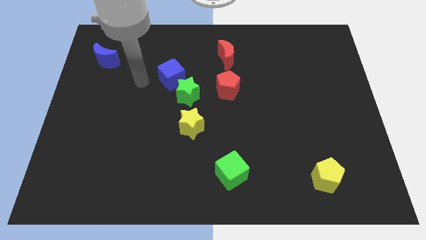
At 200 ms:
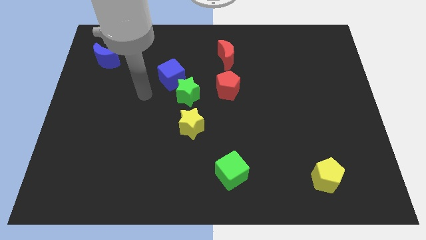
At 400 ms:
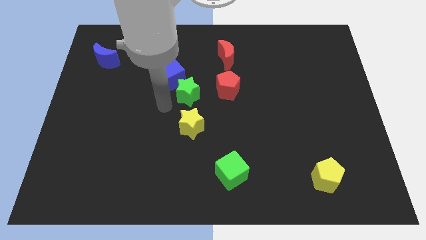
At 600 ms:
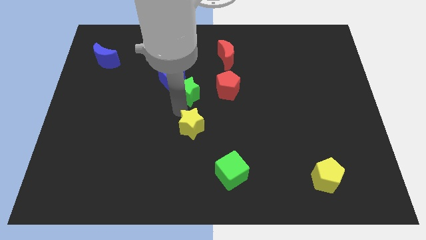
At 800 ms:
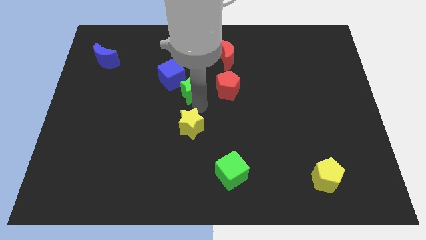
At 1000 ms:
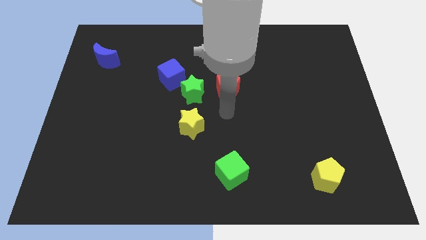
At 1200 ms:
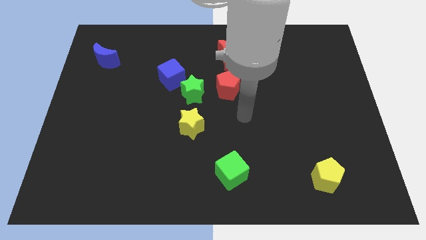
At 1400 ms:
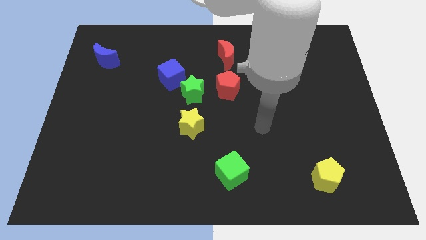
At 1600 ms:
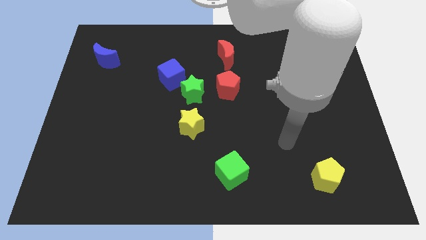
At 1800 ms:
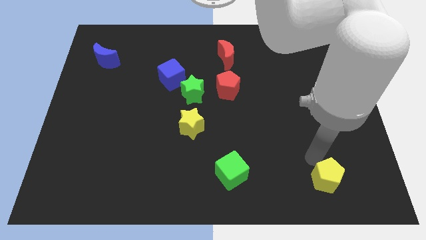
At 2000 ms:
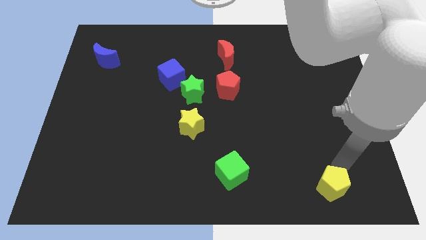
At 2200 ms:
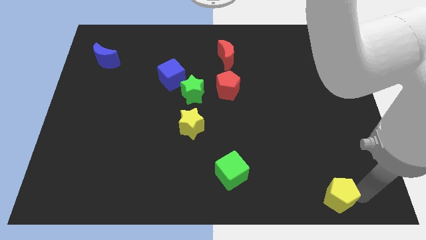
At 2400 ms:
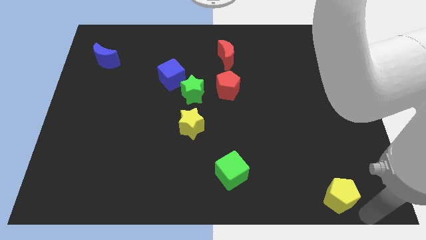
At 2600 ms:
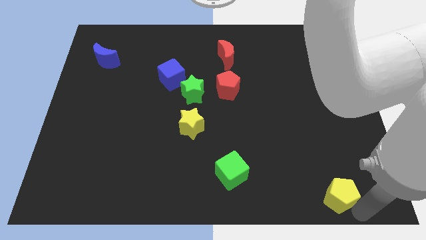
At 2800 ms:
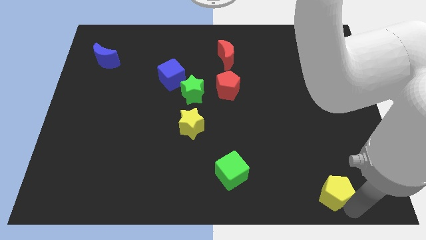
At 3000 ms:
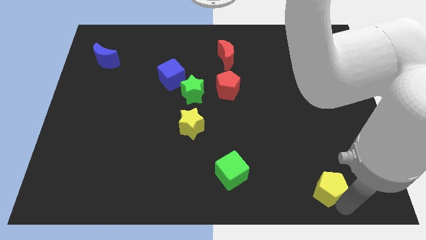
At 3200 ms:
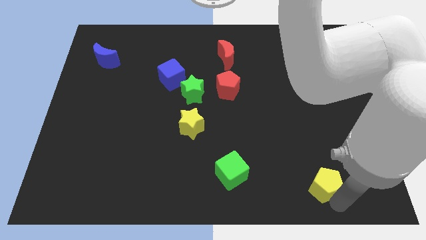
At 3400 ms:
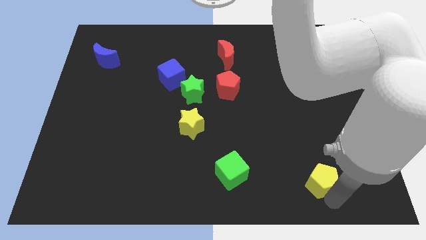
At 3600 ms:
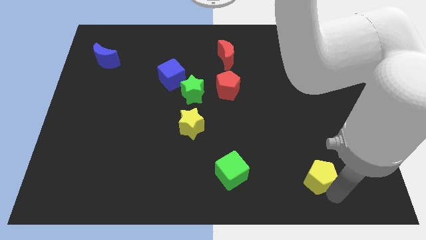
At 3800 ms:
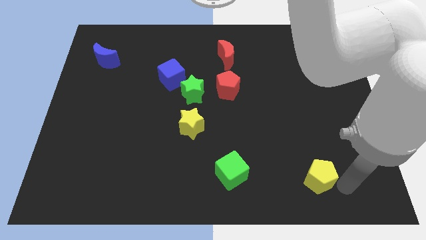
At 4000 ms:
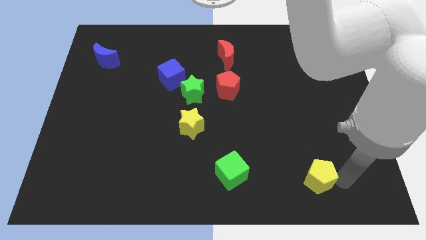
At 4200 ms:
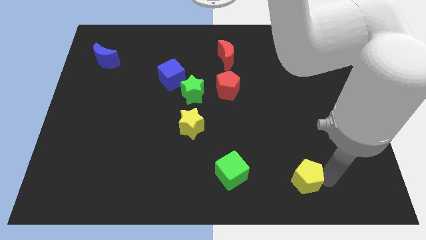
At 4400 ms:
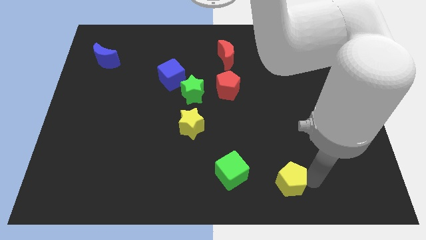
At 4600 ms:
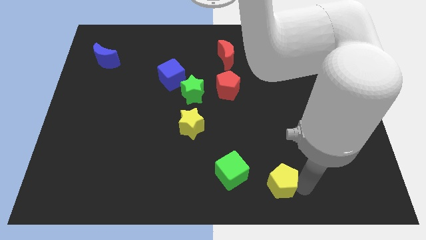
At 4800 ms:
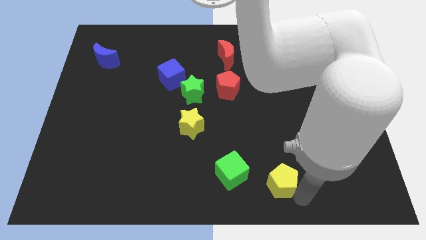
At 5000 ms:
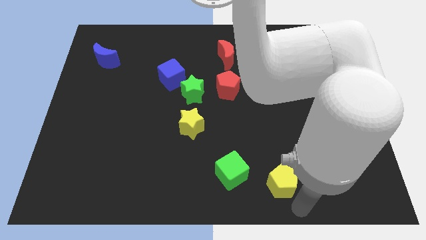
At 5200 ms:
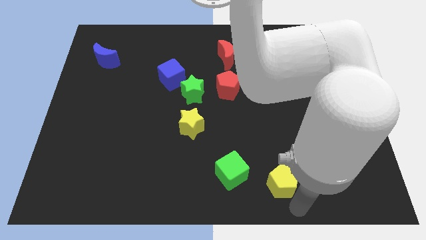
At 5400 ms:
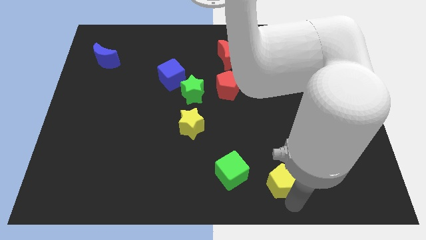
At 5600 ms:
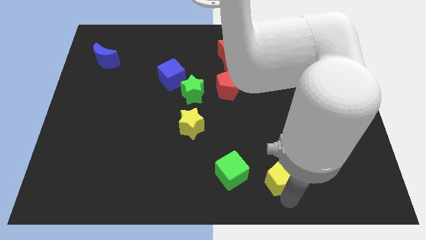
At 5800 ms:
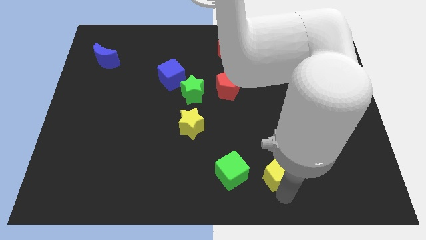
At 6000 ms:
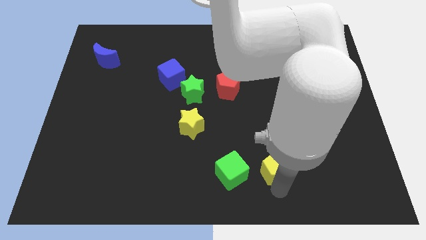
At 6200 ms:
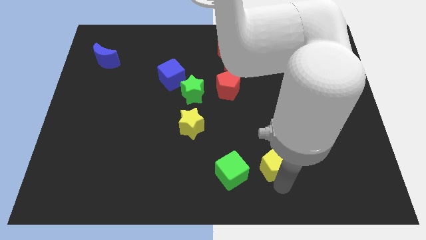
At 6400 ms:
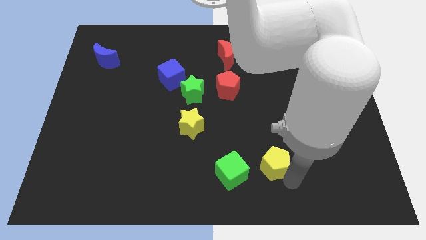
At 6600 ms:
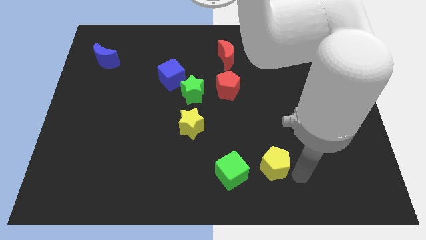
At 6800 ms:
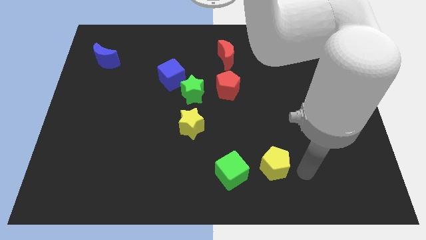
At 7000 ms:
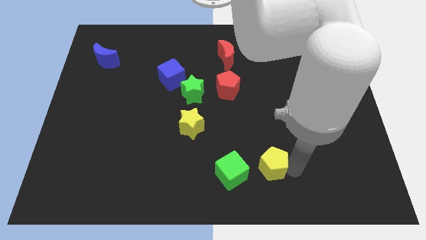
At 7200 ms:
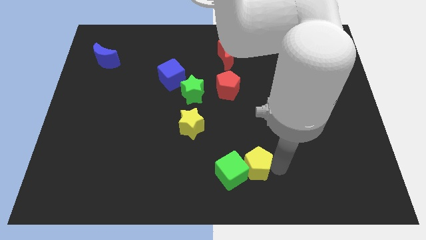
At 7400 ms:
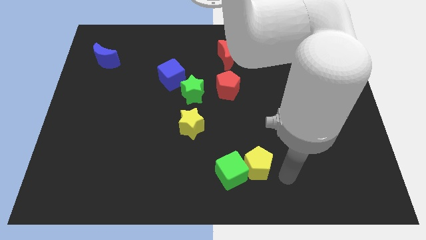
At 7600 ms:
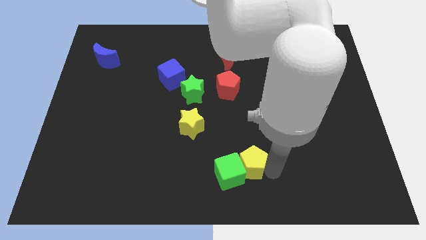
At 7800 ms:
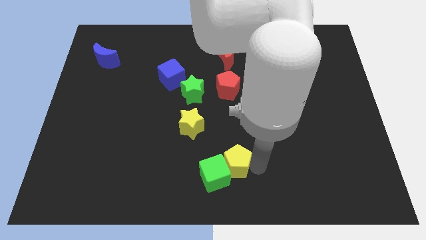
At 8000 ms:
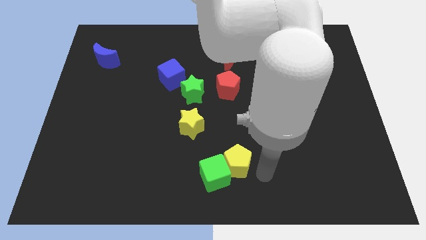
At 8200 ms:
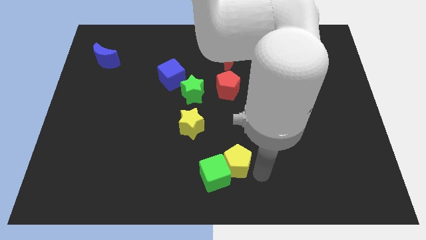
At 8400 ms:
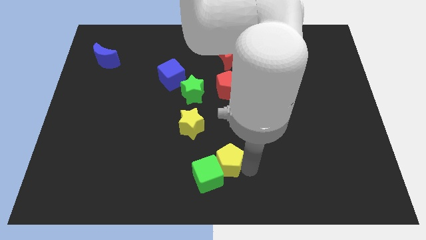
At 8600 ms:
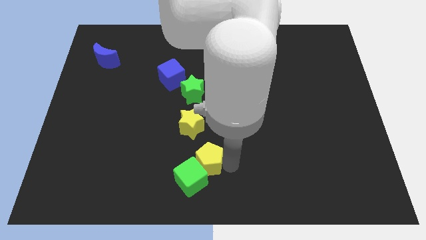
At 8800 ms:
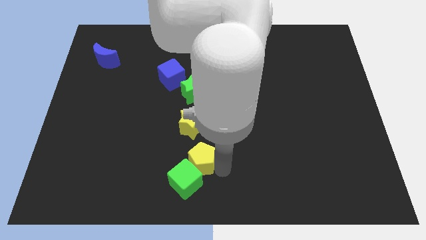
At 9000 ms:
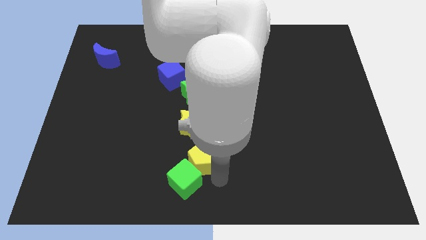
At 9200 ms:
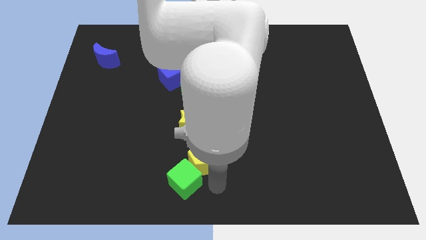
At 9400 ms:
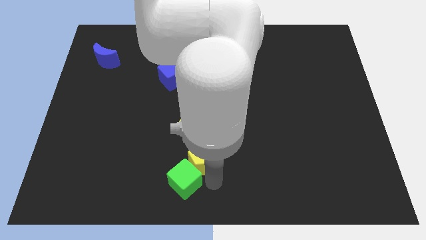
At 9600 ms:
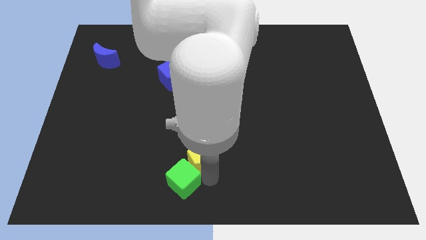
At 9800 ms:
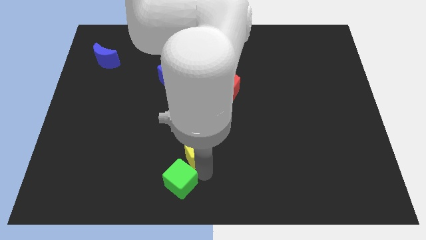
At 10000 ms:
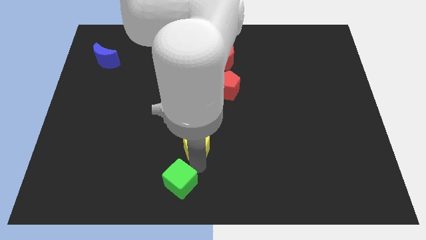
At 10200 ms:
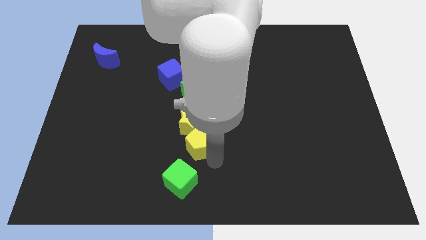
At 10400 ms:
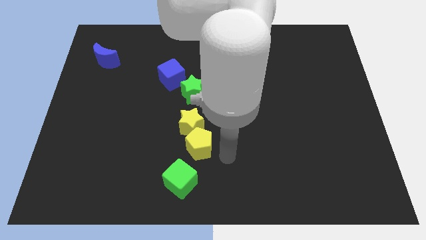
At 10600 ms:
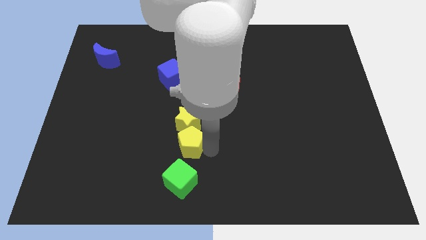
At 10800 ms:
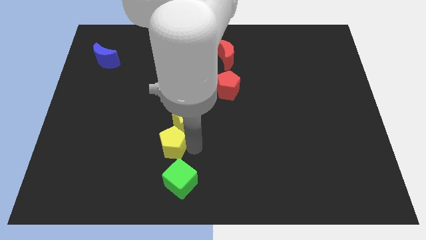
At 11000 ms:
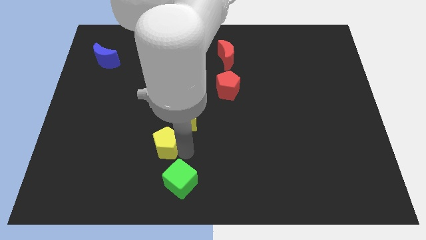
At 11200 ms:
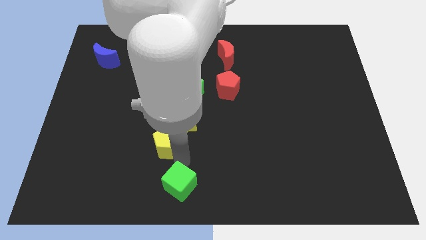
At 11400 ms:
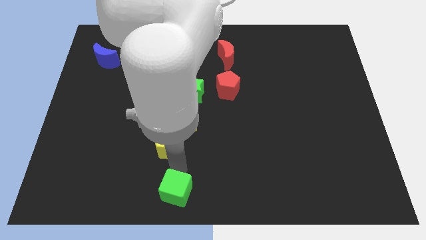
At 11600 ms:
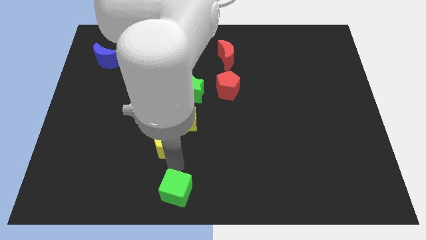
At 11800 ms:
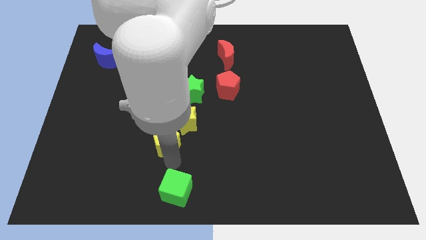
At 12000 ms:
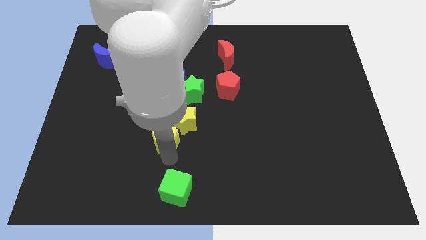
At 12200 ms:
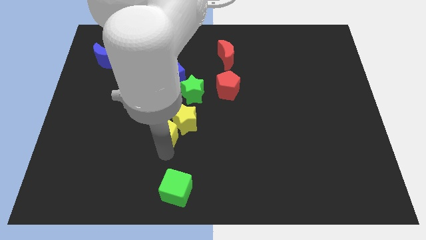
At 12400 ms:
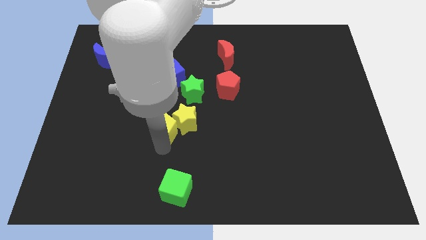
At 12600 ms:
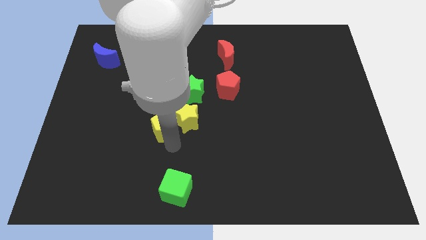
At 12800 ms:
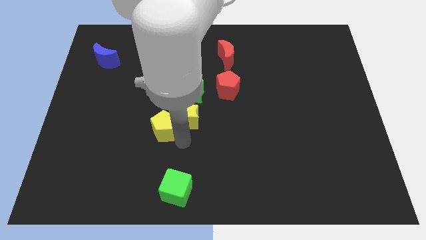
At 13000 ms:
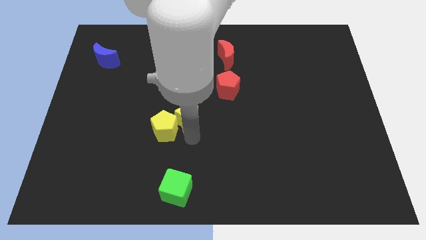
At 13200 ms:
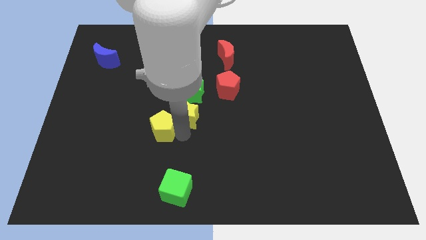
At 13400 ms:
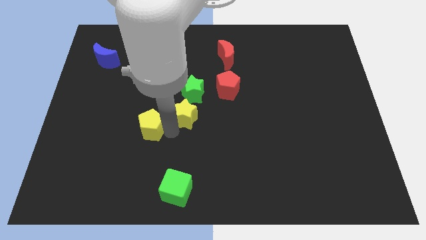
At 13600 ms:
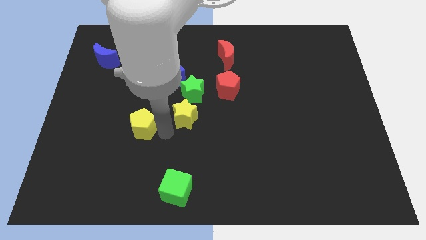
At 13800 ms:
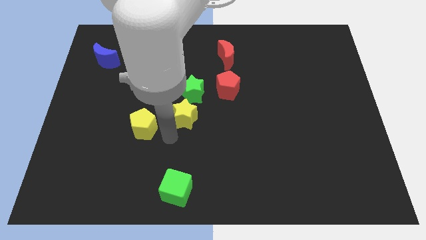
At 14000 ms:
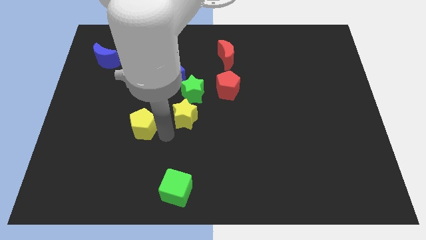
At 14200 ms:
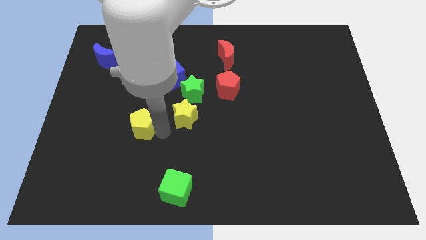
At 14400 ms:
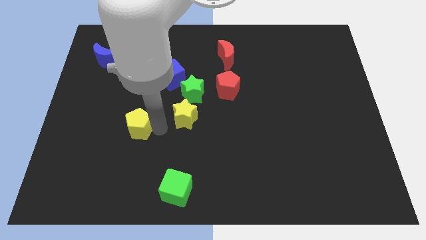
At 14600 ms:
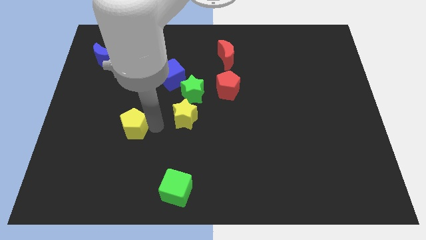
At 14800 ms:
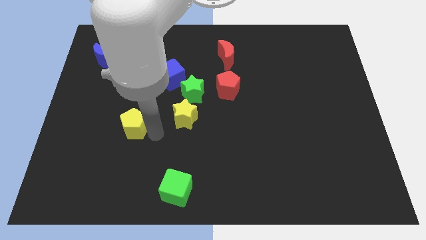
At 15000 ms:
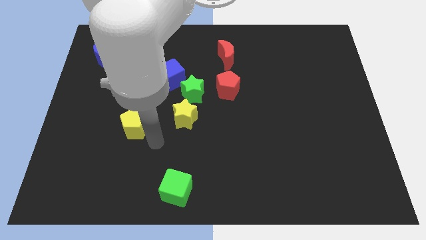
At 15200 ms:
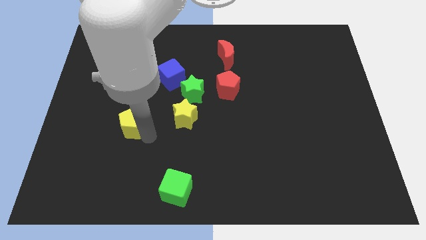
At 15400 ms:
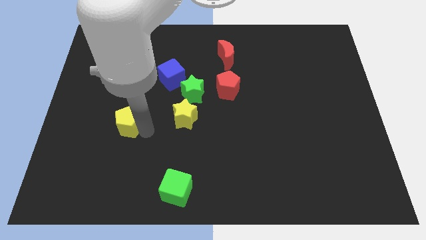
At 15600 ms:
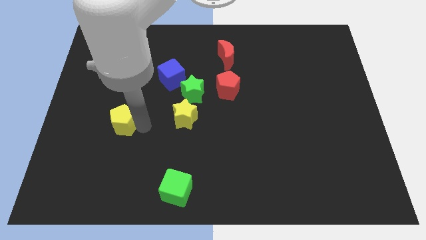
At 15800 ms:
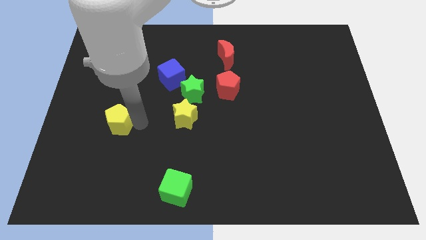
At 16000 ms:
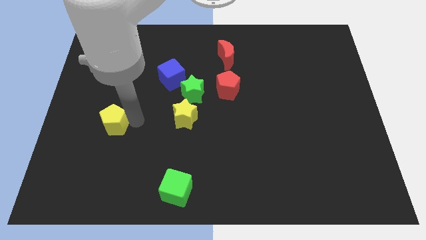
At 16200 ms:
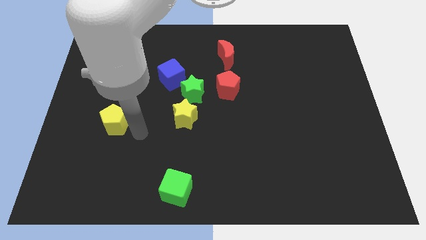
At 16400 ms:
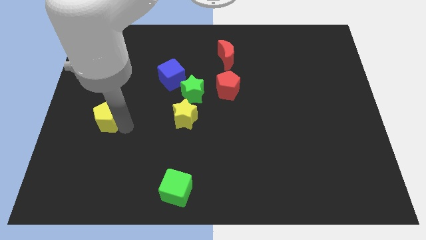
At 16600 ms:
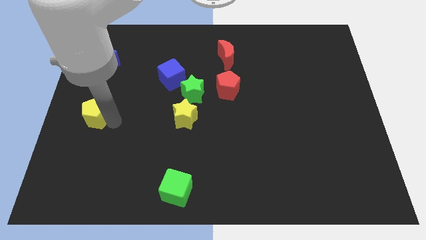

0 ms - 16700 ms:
slide the yellow pentagon to the left side
